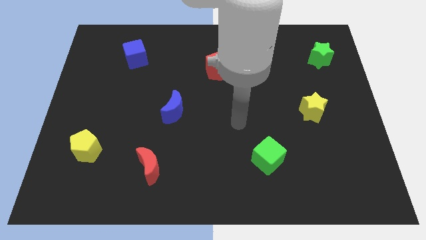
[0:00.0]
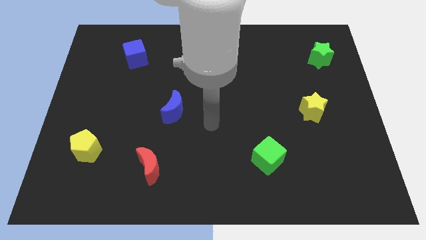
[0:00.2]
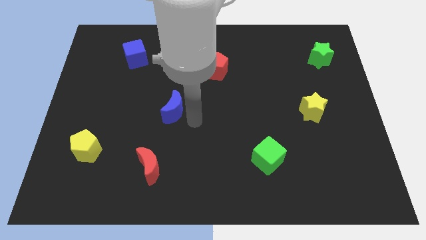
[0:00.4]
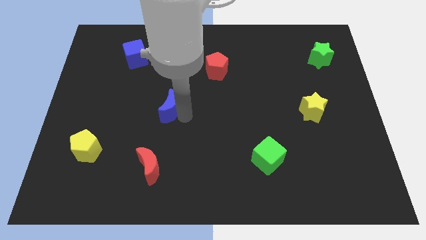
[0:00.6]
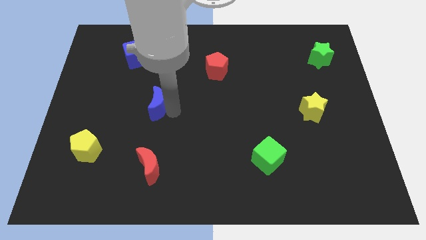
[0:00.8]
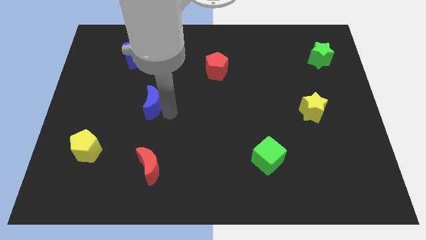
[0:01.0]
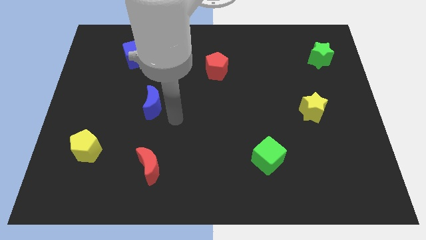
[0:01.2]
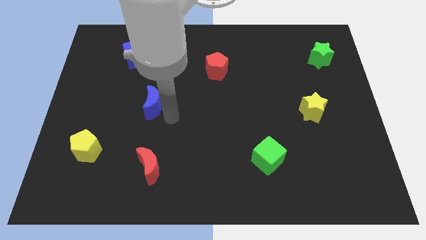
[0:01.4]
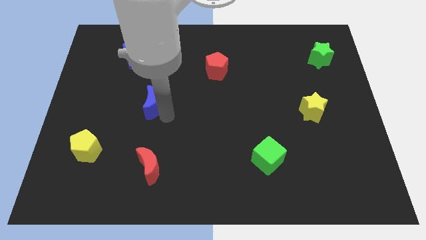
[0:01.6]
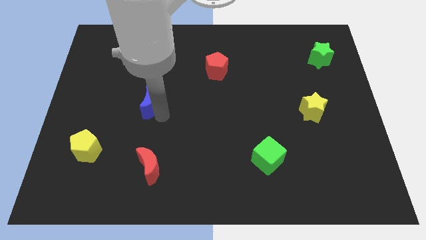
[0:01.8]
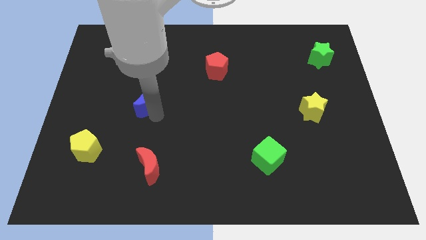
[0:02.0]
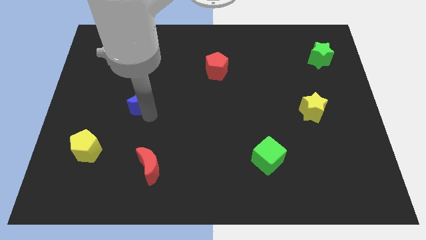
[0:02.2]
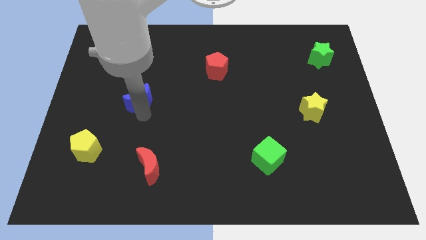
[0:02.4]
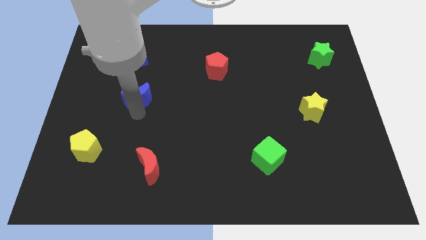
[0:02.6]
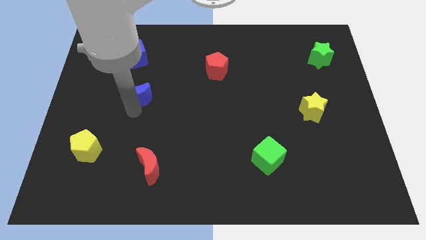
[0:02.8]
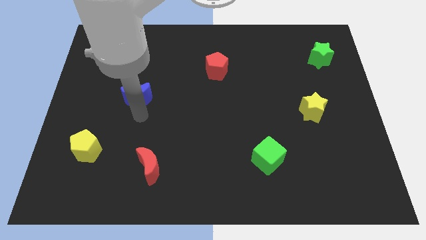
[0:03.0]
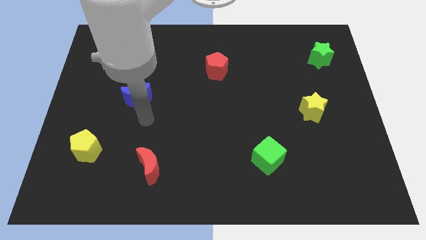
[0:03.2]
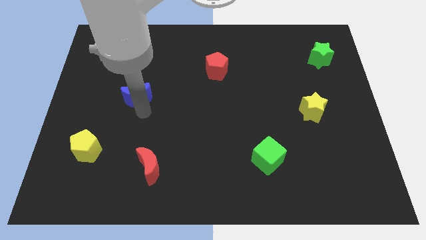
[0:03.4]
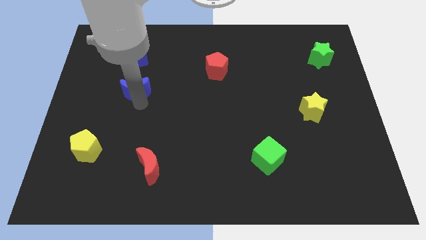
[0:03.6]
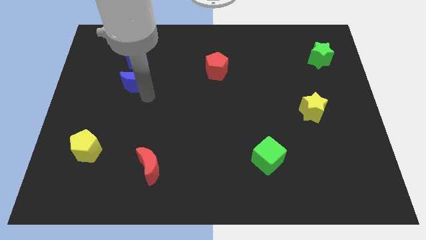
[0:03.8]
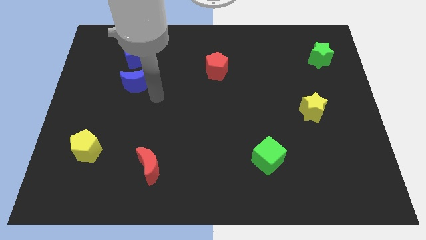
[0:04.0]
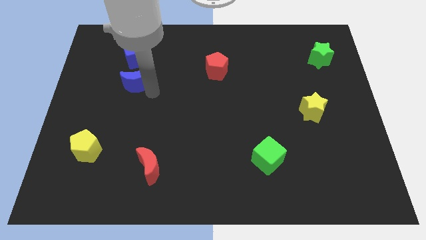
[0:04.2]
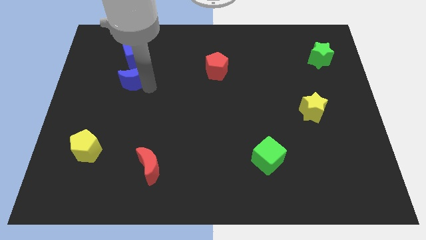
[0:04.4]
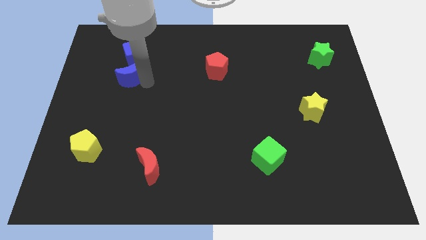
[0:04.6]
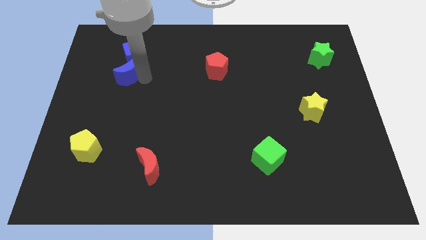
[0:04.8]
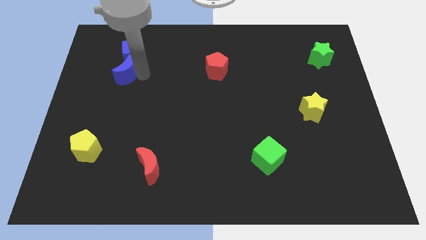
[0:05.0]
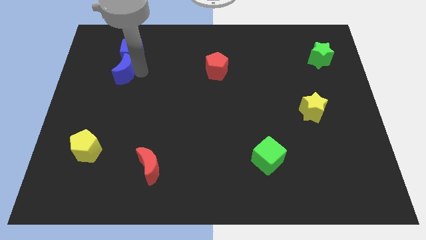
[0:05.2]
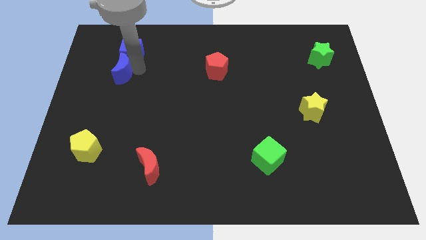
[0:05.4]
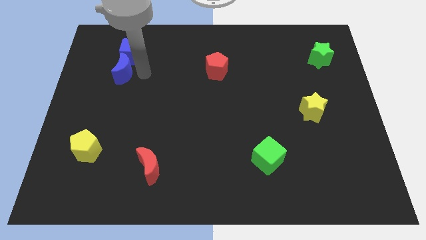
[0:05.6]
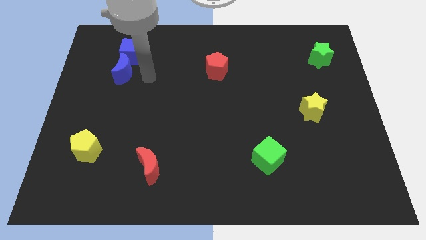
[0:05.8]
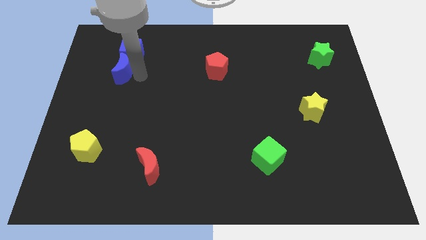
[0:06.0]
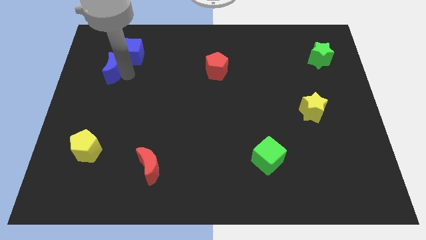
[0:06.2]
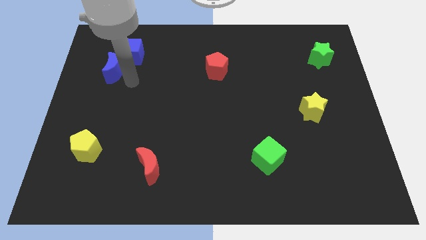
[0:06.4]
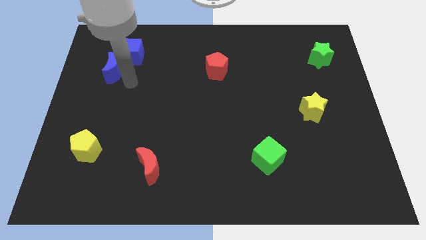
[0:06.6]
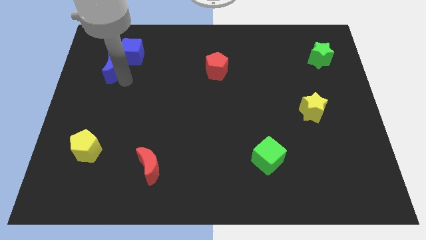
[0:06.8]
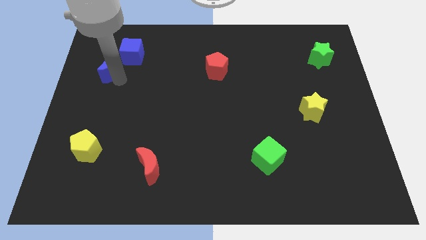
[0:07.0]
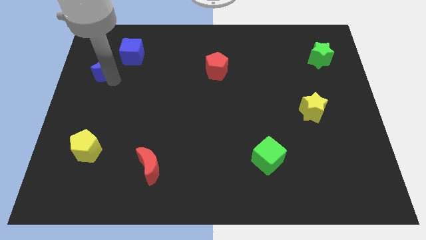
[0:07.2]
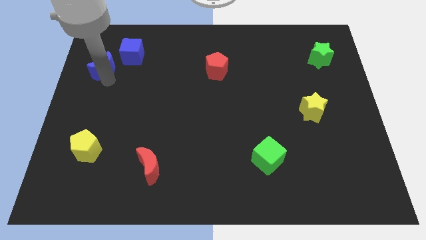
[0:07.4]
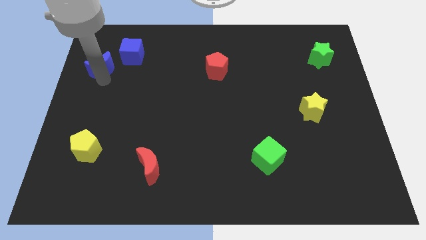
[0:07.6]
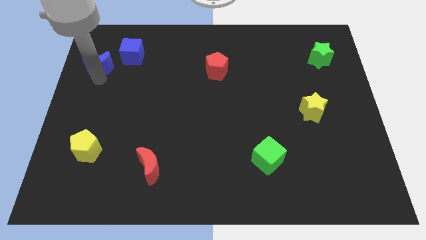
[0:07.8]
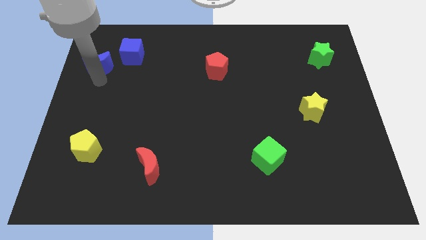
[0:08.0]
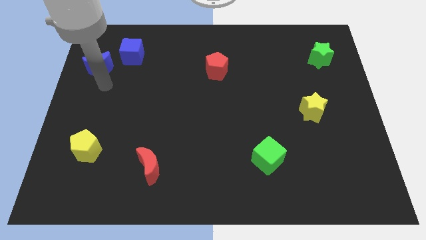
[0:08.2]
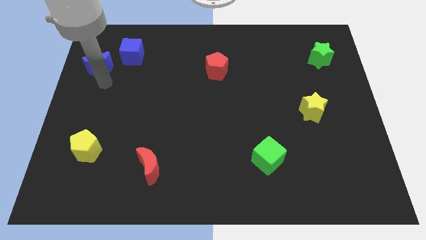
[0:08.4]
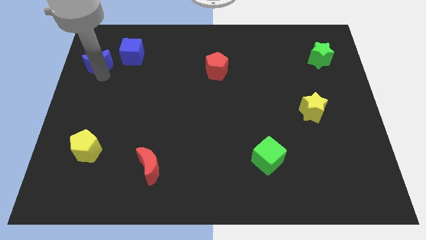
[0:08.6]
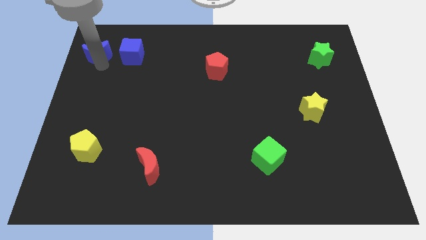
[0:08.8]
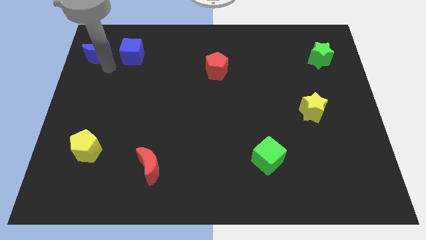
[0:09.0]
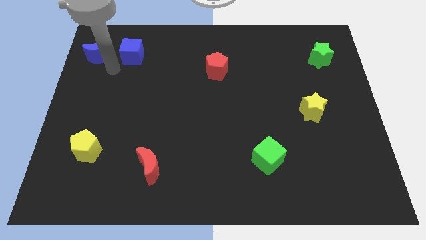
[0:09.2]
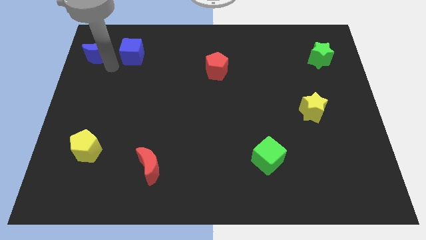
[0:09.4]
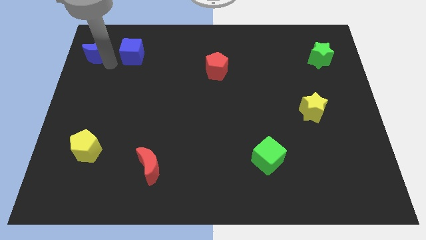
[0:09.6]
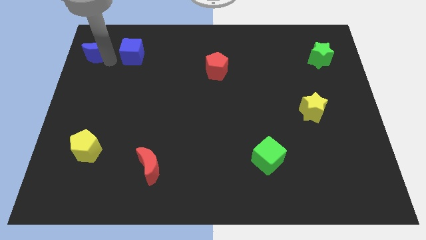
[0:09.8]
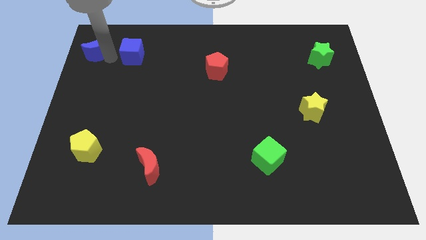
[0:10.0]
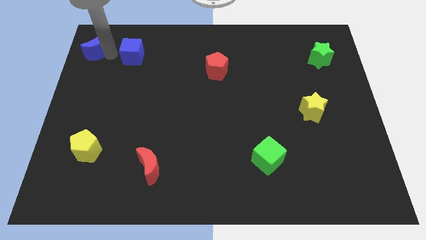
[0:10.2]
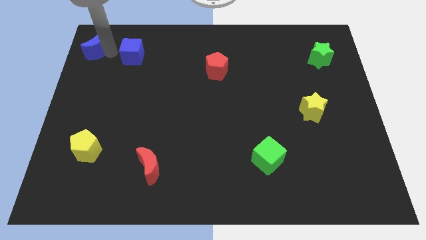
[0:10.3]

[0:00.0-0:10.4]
move the blue moon to the upper left corner
